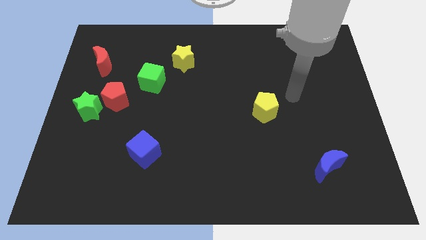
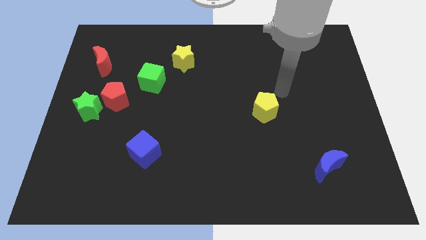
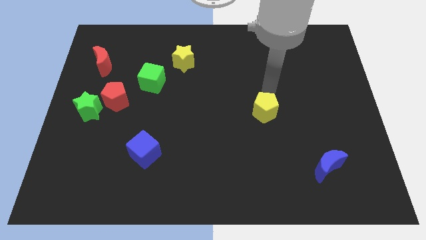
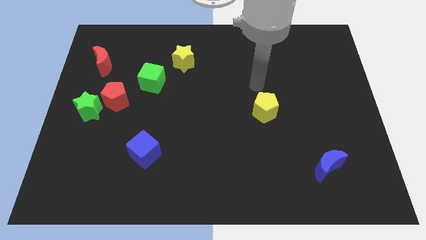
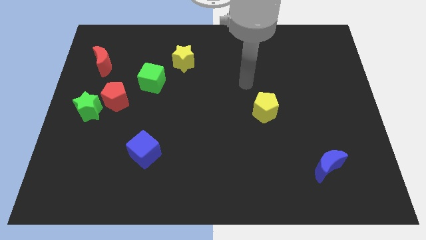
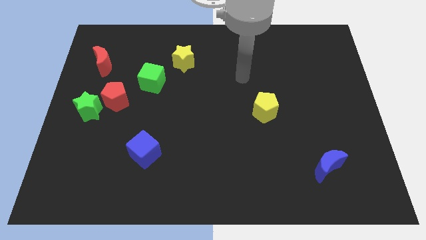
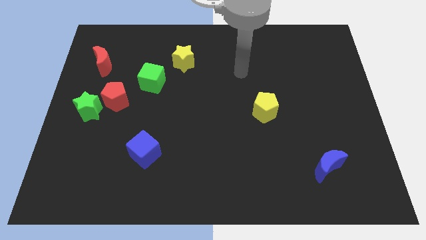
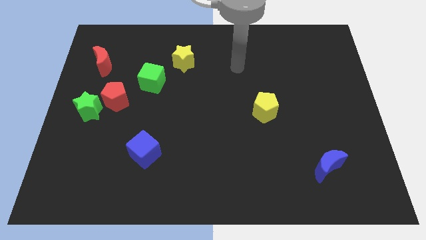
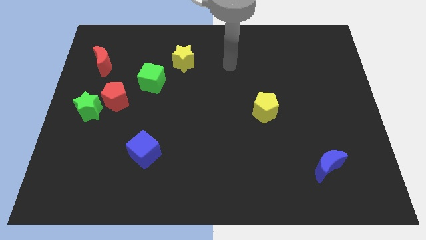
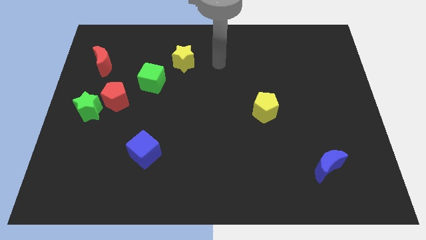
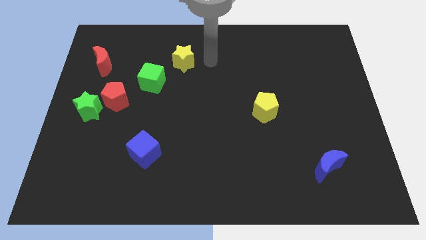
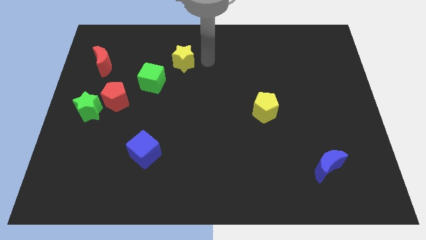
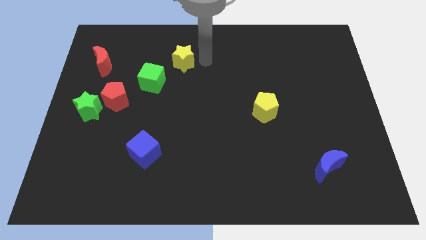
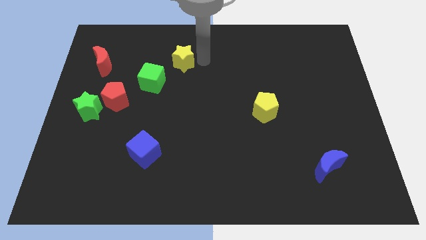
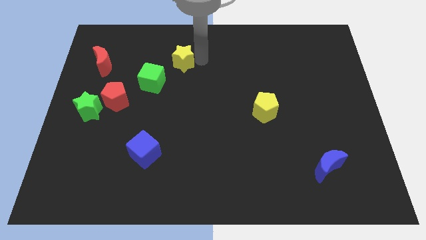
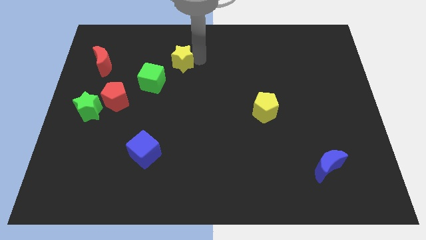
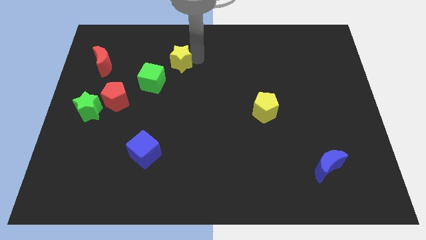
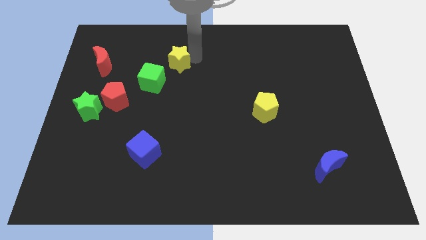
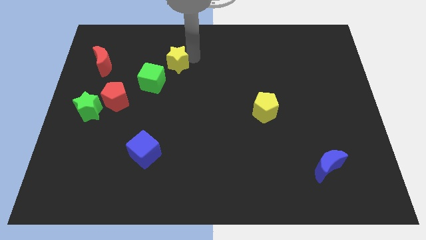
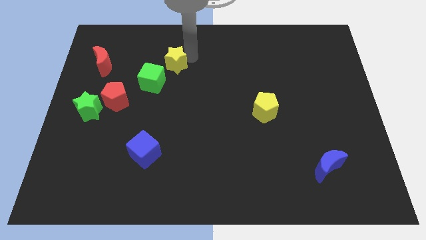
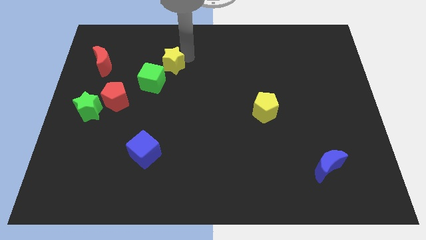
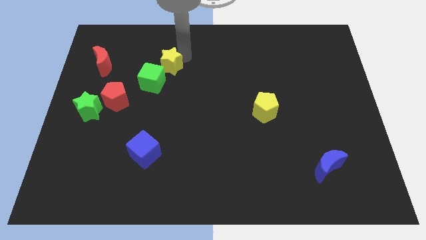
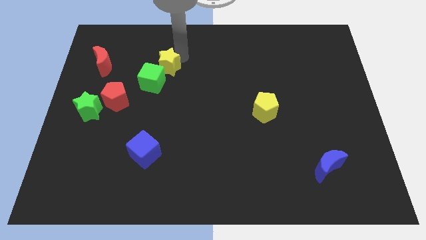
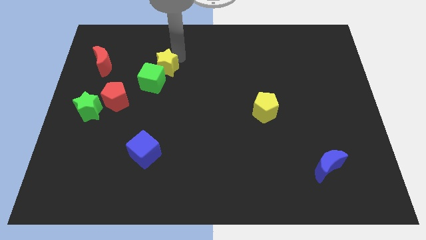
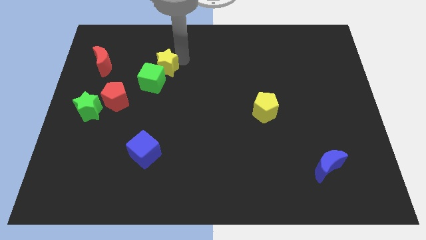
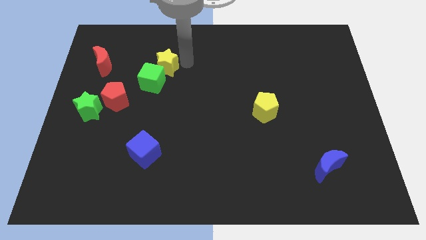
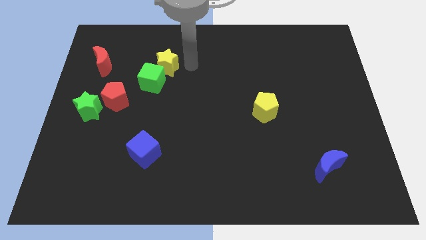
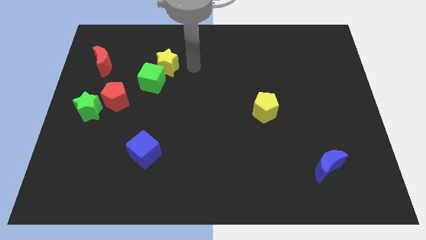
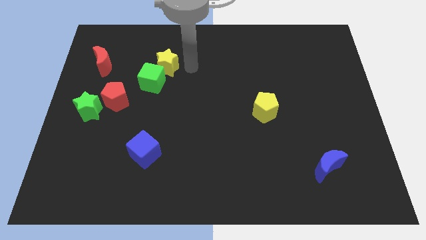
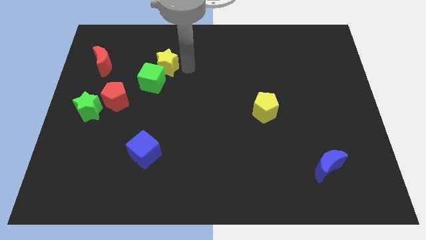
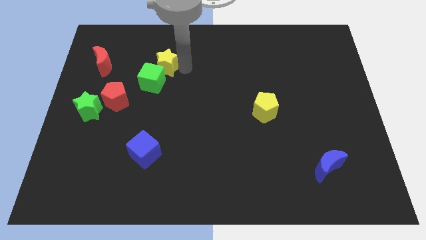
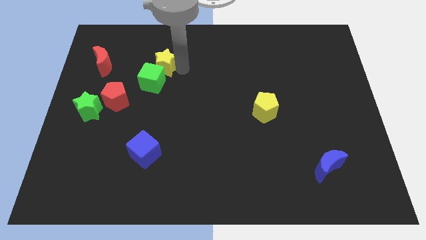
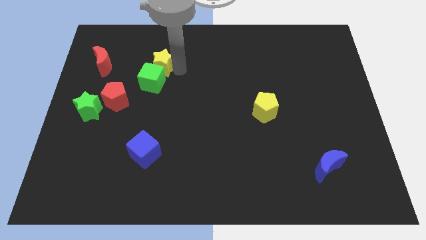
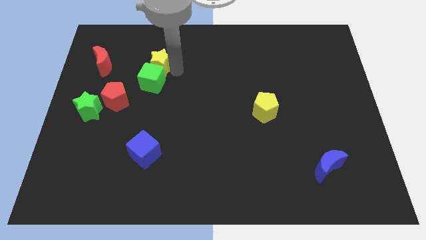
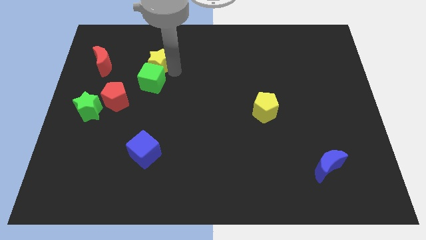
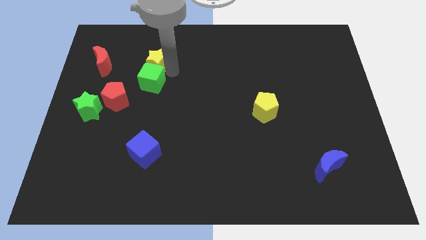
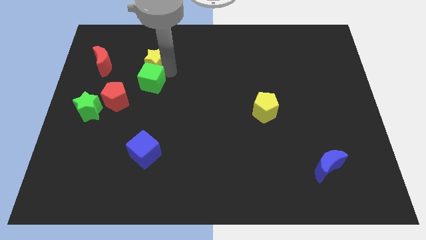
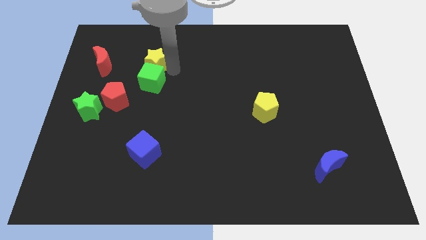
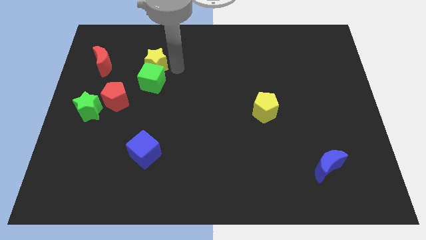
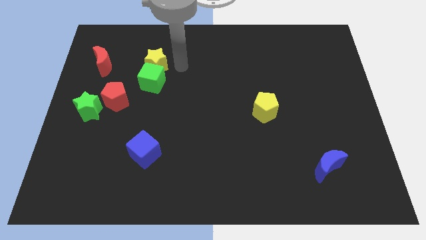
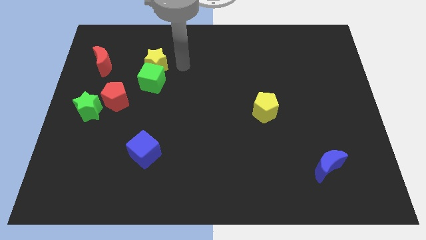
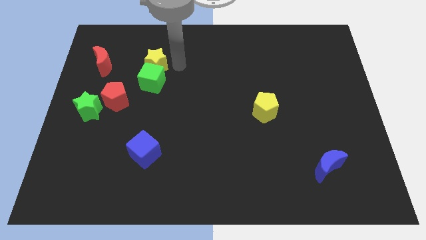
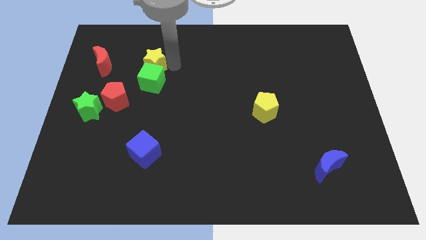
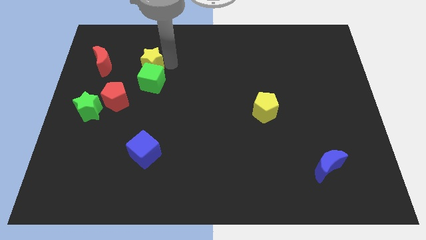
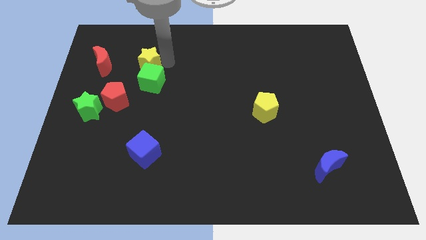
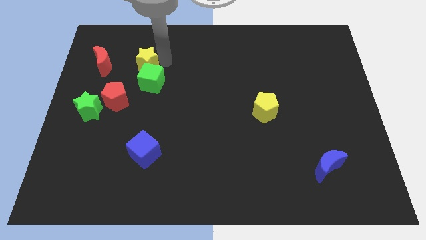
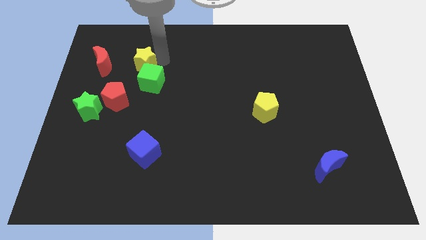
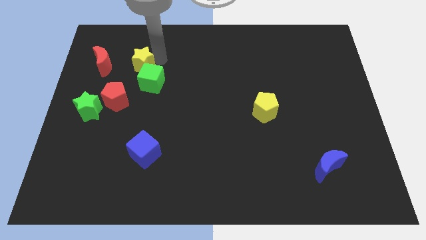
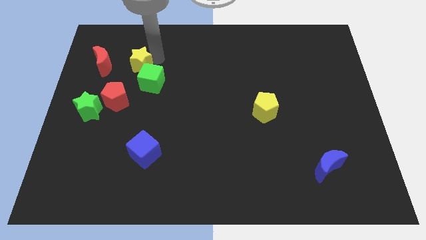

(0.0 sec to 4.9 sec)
slide the yellow star to the top of the red pentagon

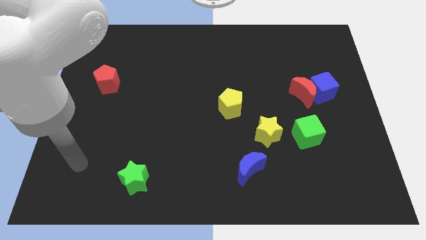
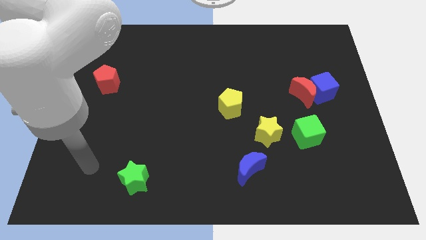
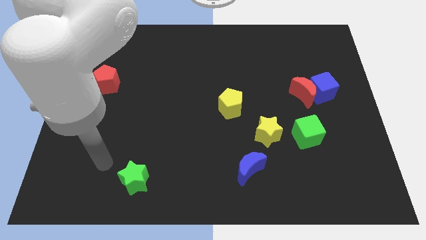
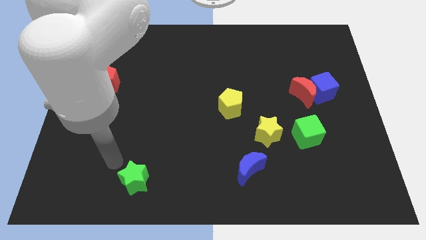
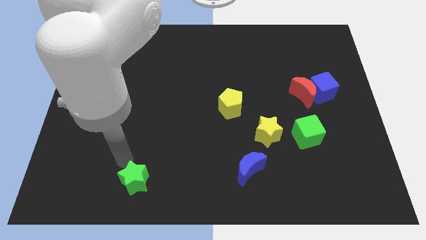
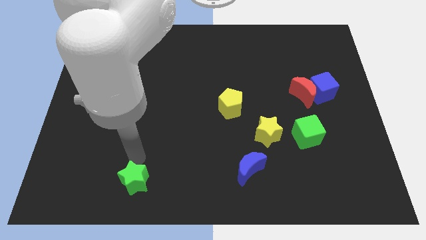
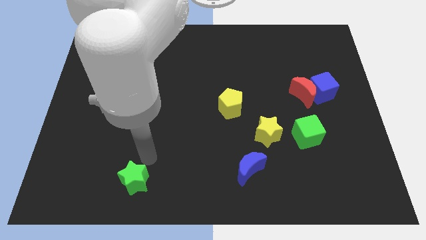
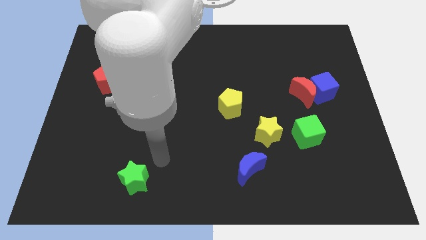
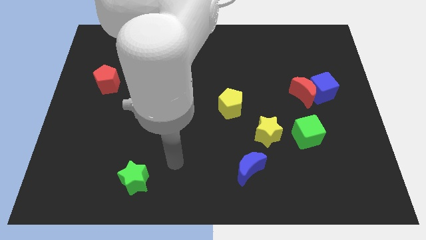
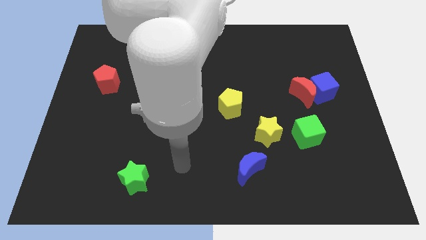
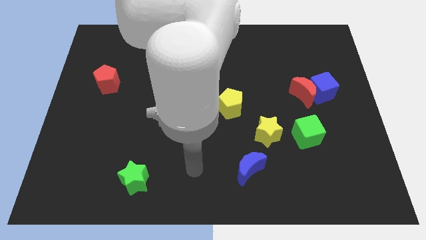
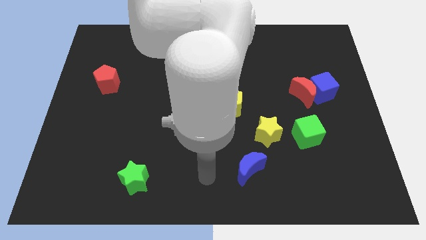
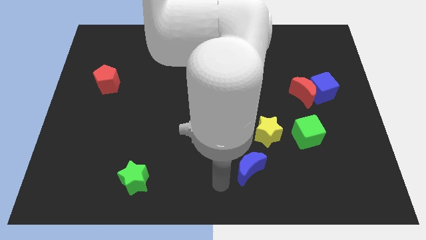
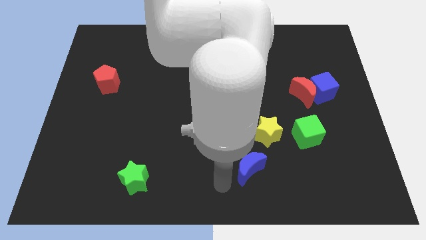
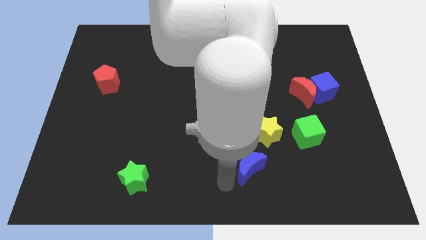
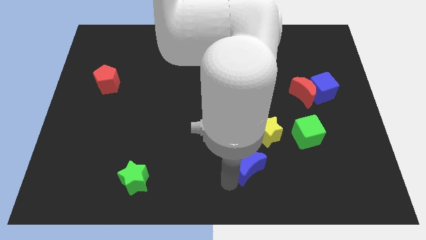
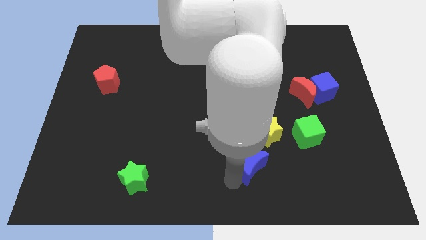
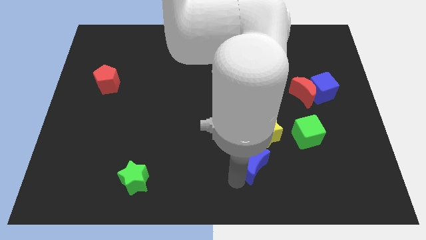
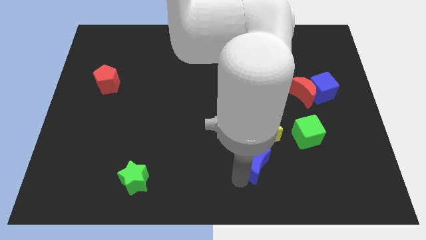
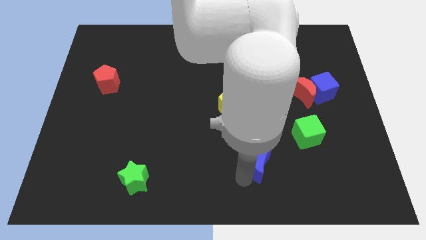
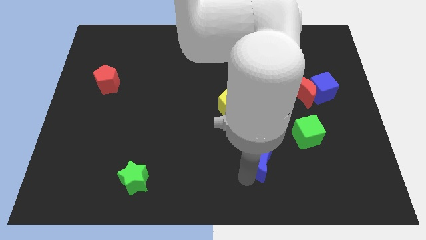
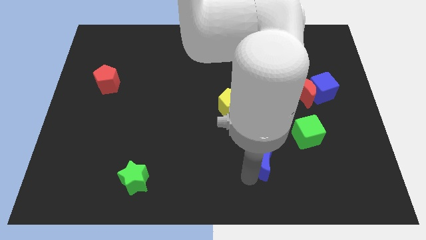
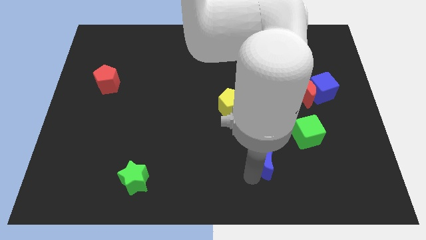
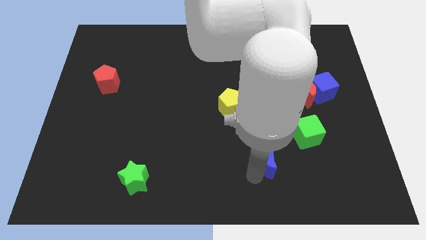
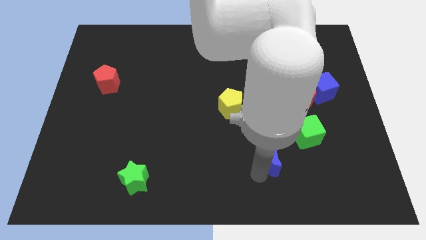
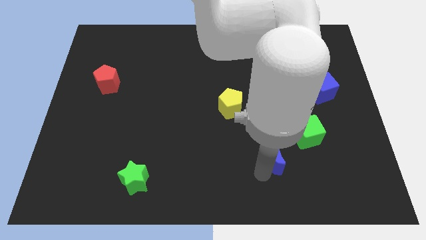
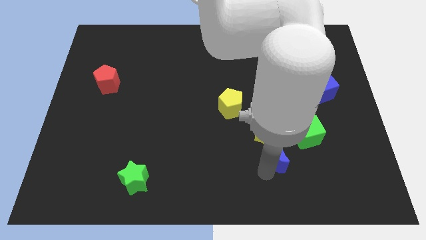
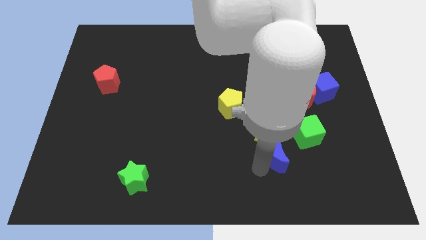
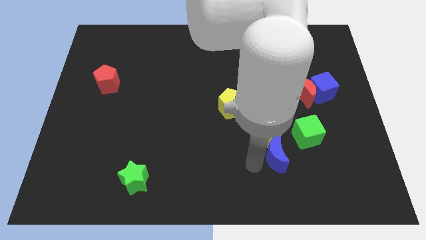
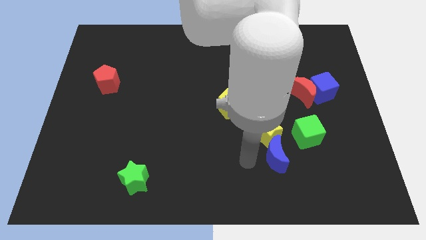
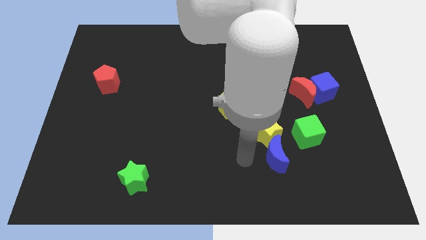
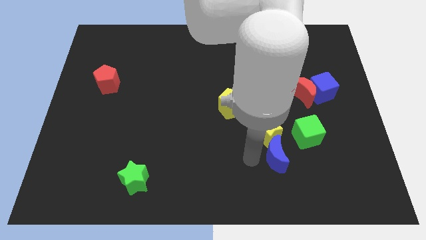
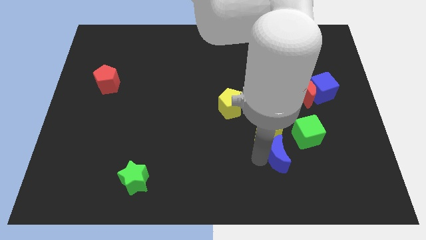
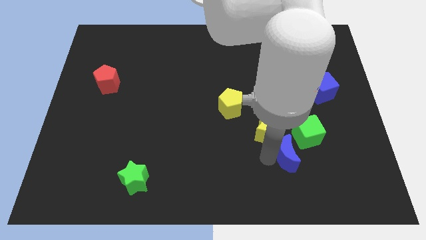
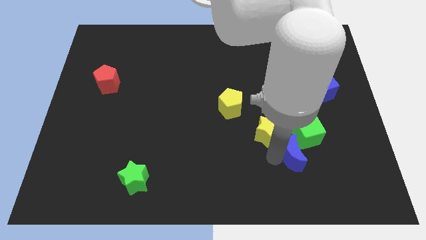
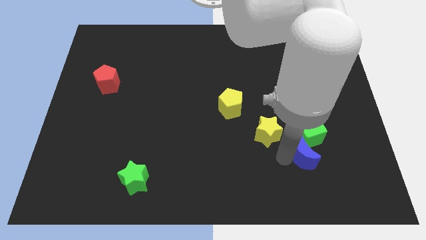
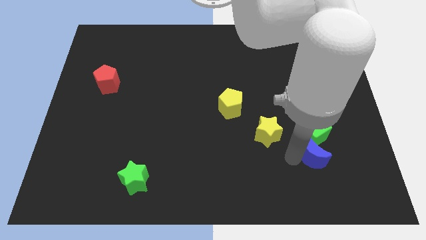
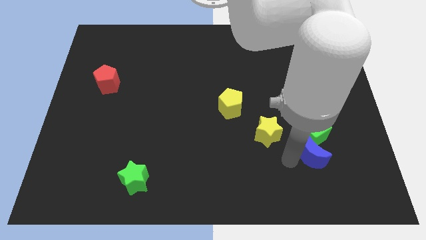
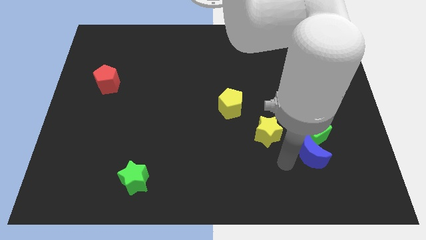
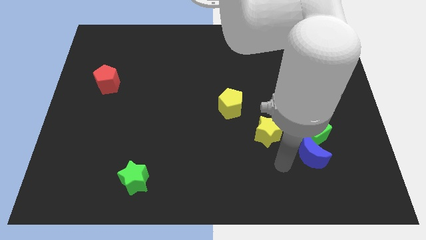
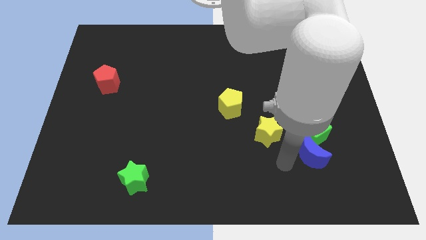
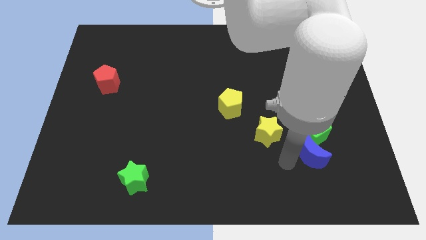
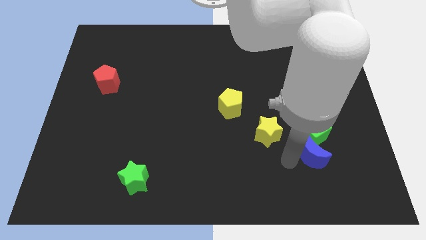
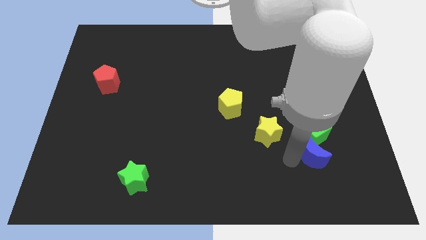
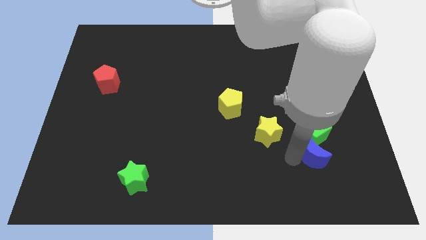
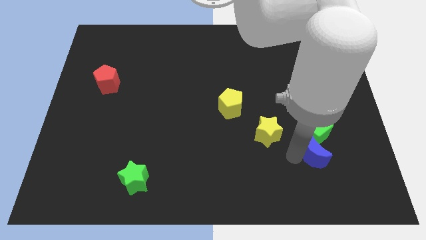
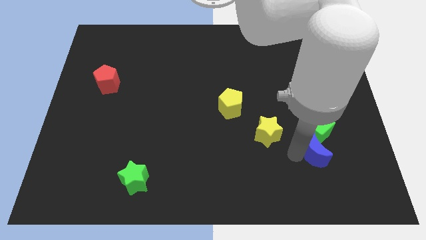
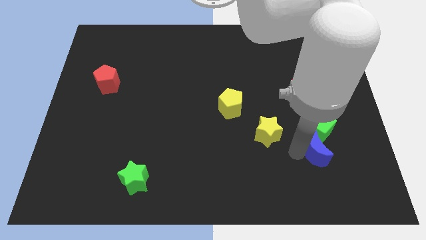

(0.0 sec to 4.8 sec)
push the blue moon just right of the yellow star
